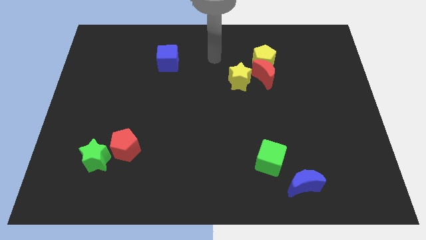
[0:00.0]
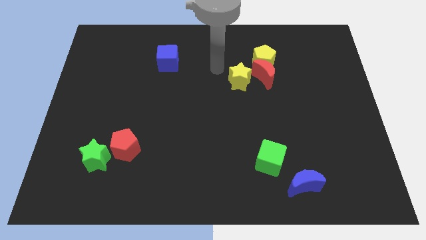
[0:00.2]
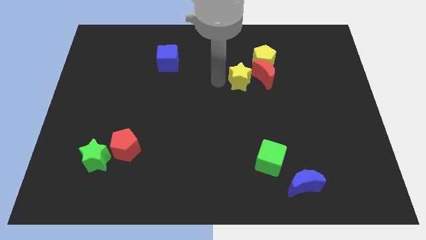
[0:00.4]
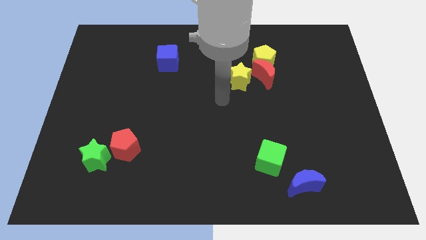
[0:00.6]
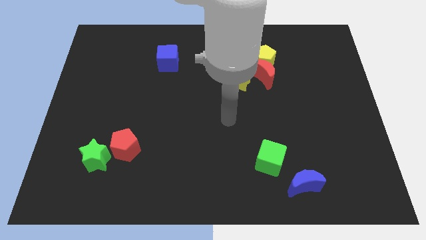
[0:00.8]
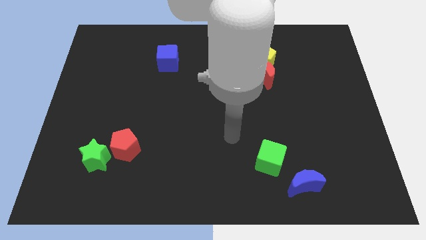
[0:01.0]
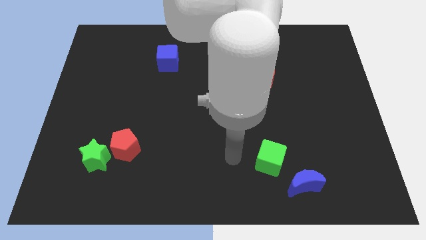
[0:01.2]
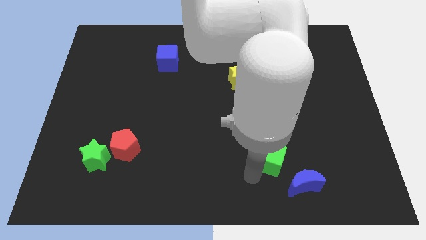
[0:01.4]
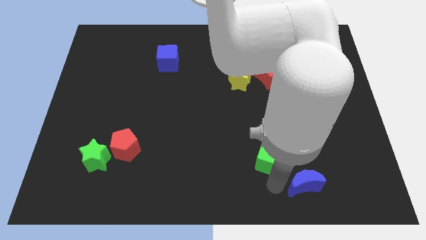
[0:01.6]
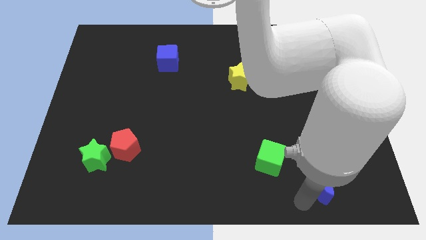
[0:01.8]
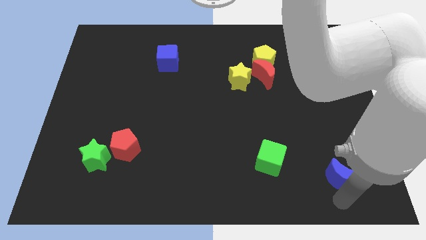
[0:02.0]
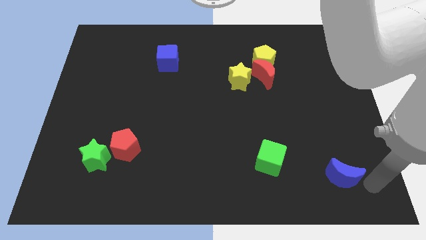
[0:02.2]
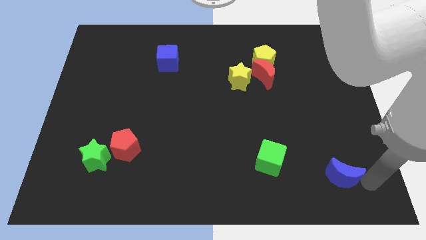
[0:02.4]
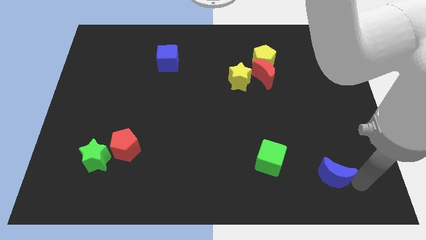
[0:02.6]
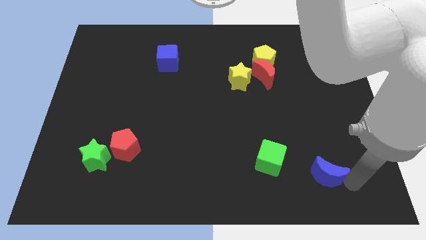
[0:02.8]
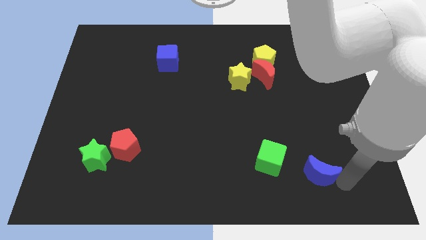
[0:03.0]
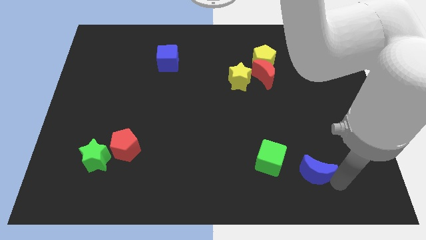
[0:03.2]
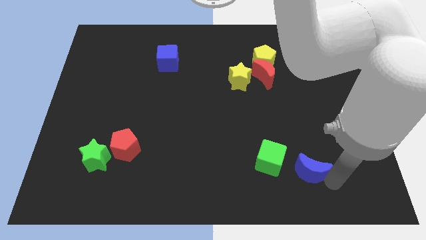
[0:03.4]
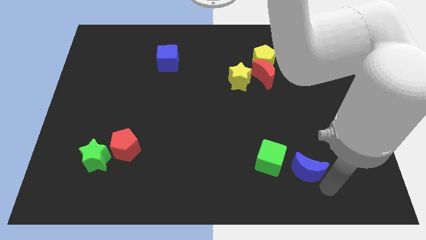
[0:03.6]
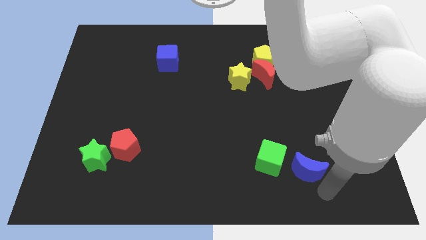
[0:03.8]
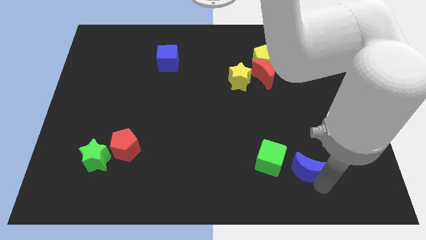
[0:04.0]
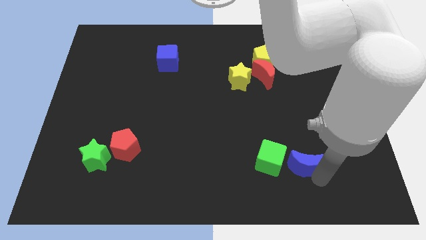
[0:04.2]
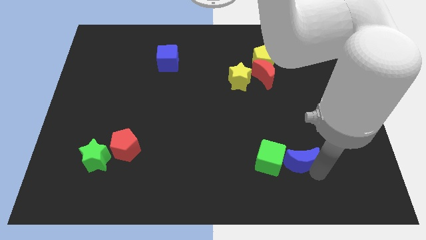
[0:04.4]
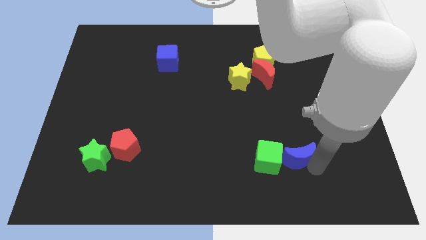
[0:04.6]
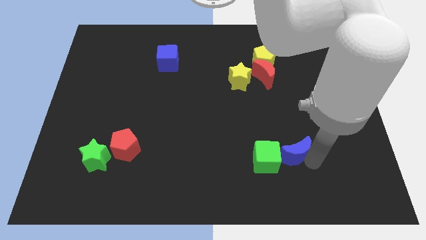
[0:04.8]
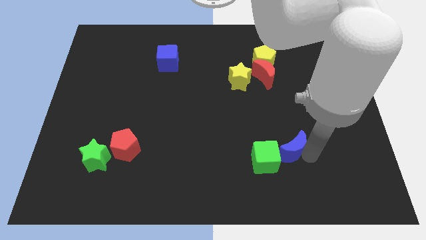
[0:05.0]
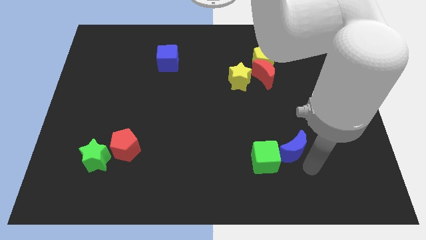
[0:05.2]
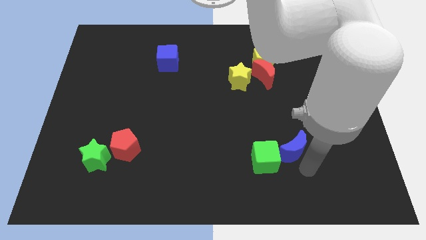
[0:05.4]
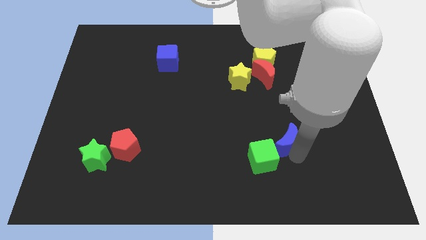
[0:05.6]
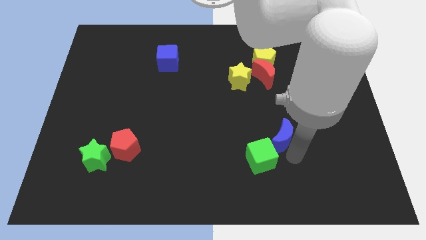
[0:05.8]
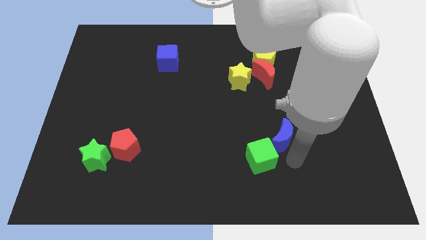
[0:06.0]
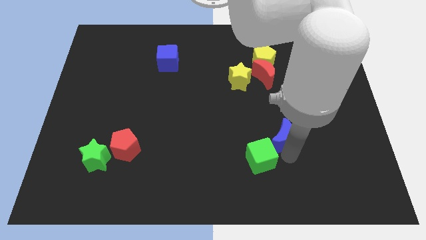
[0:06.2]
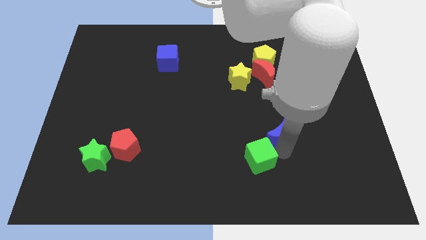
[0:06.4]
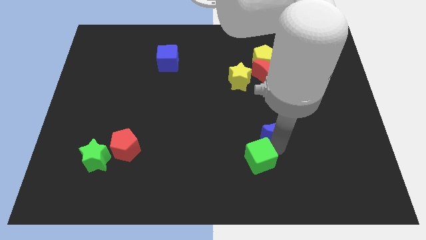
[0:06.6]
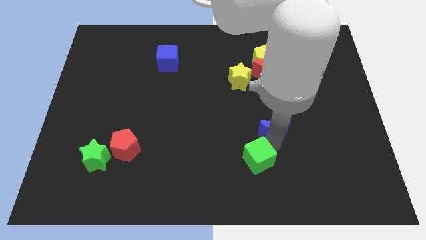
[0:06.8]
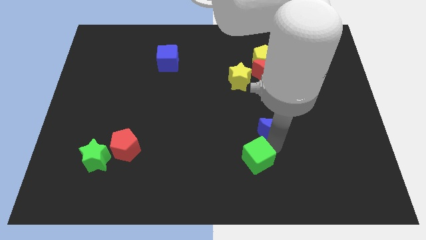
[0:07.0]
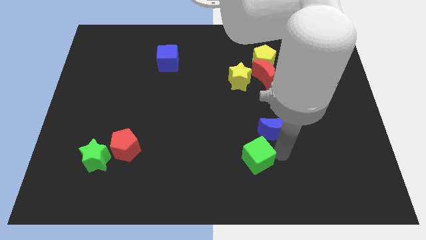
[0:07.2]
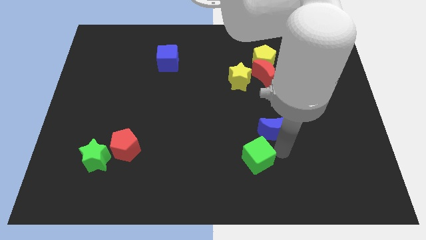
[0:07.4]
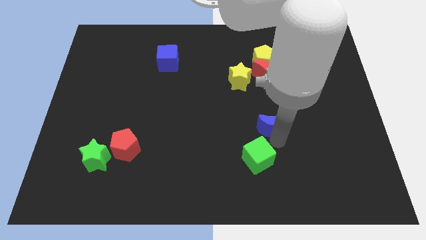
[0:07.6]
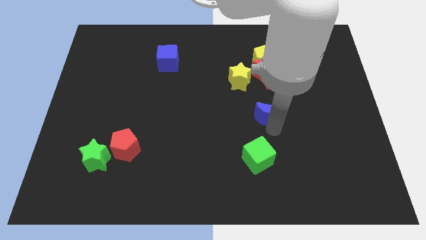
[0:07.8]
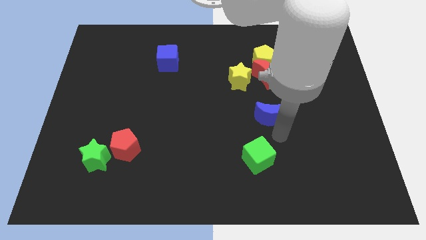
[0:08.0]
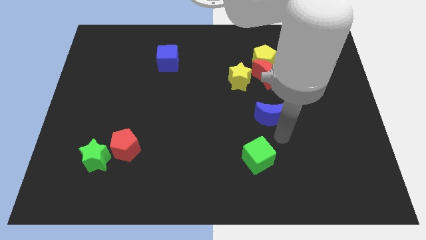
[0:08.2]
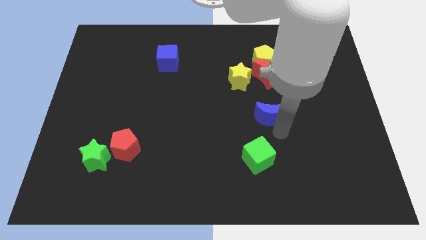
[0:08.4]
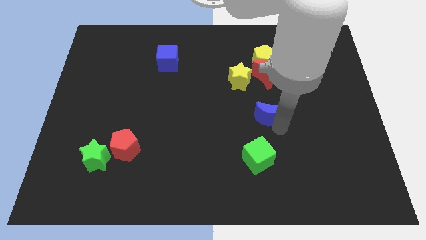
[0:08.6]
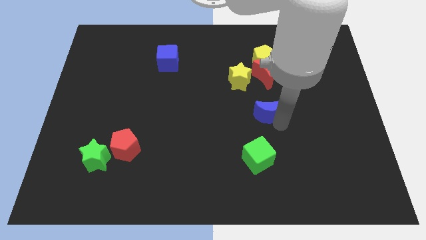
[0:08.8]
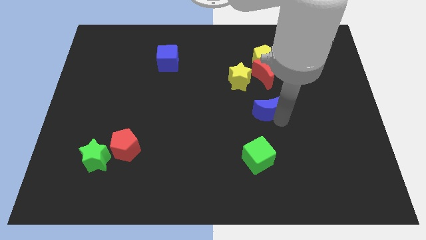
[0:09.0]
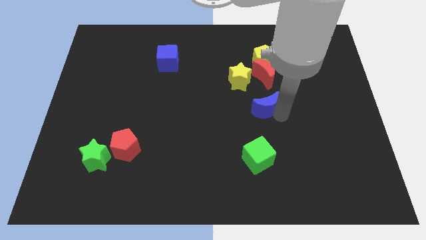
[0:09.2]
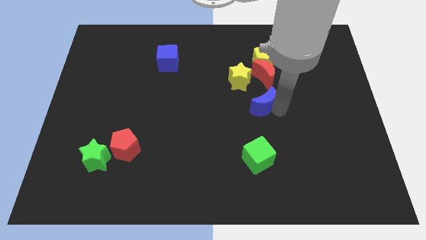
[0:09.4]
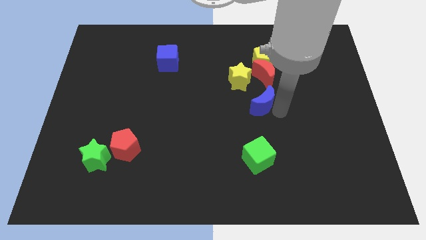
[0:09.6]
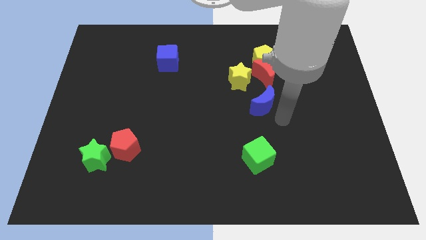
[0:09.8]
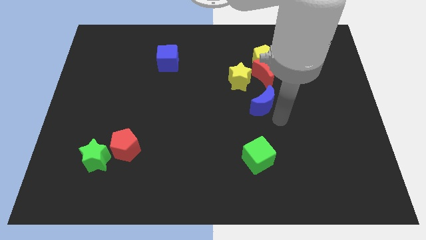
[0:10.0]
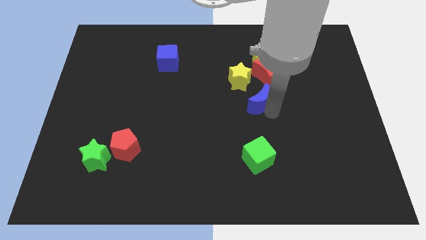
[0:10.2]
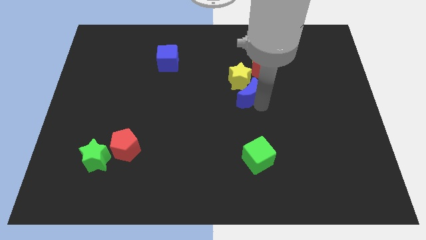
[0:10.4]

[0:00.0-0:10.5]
put the blue moon close to the yellow star

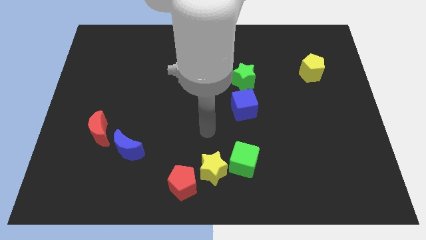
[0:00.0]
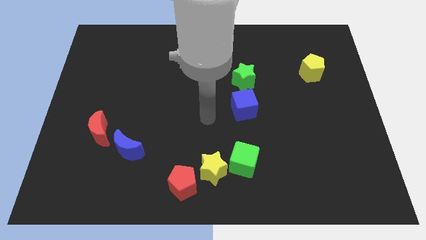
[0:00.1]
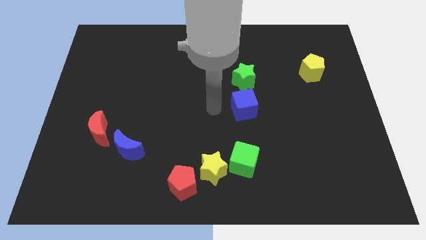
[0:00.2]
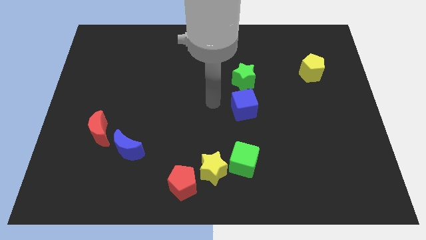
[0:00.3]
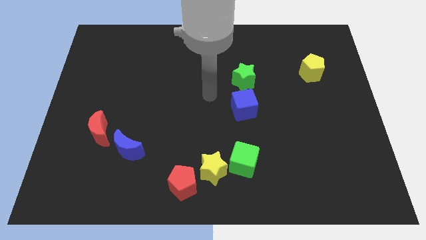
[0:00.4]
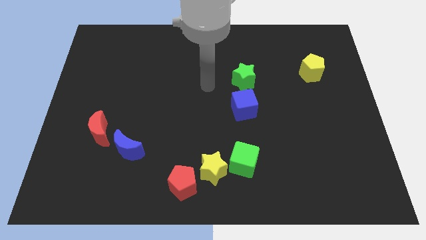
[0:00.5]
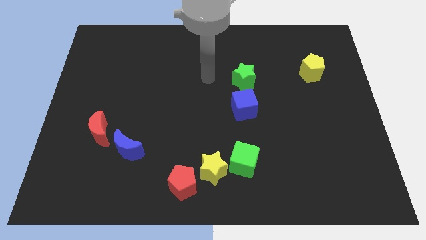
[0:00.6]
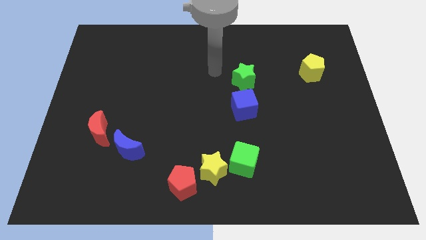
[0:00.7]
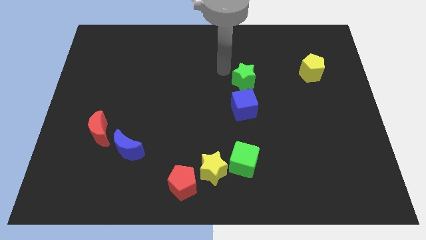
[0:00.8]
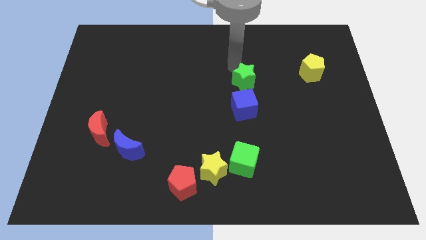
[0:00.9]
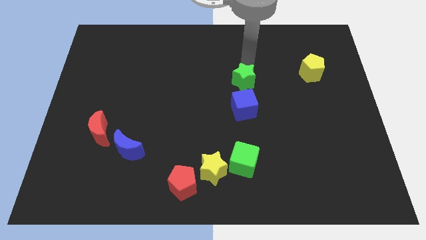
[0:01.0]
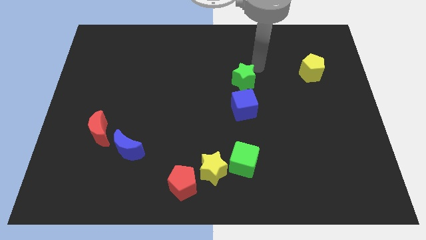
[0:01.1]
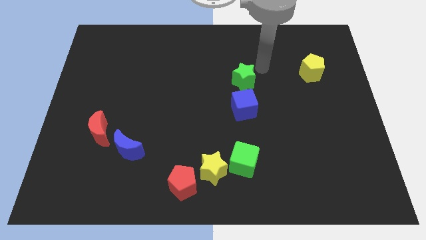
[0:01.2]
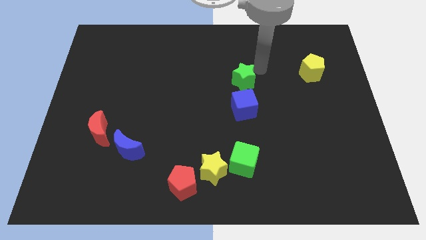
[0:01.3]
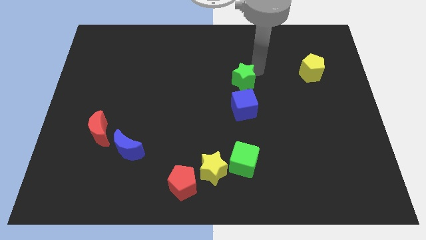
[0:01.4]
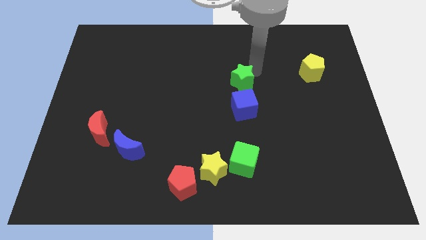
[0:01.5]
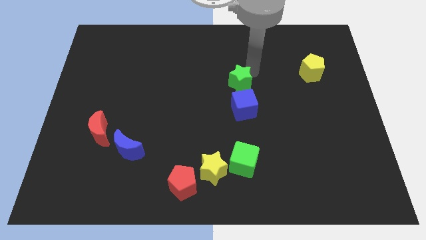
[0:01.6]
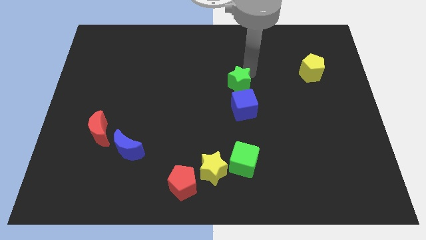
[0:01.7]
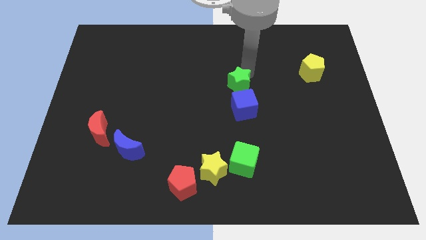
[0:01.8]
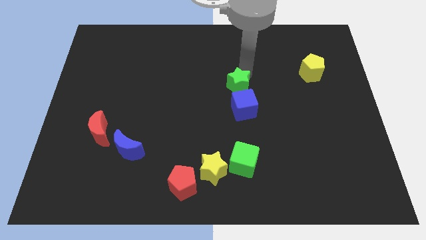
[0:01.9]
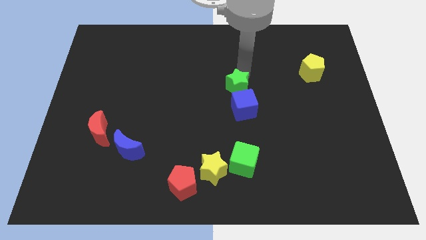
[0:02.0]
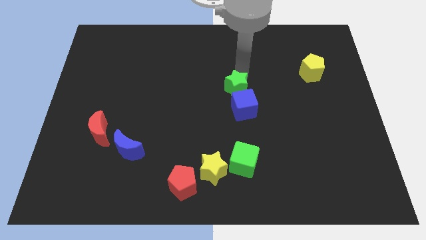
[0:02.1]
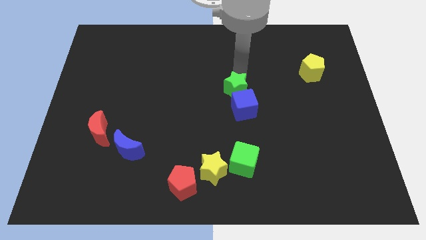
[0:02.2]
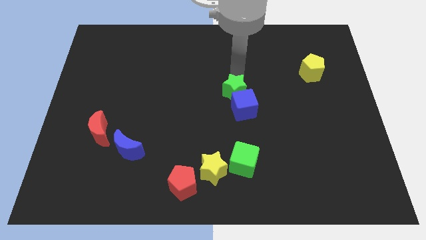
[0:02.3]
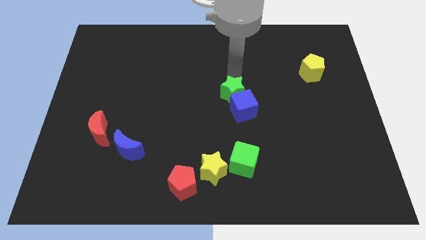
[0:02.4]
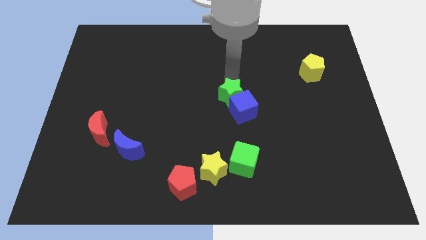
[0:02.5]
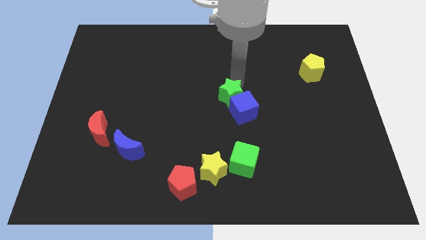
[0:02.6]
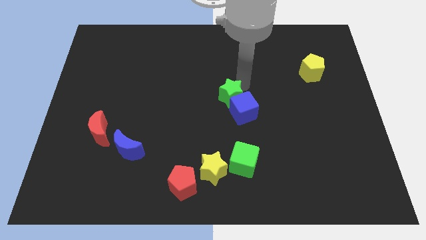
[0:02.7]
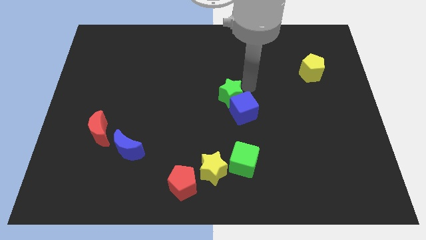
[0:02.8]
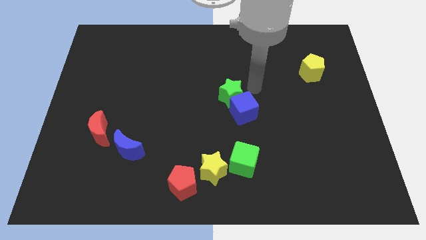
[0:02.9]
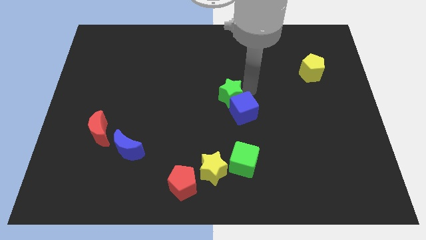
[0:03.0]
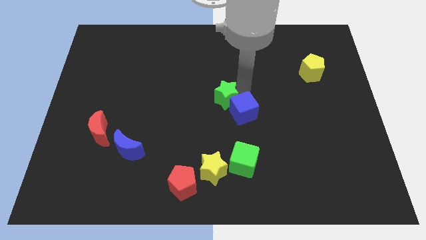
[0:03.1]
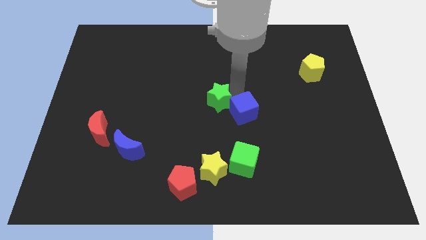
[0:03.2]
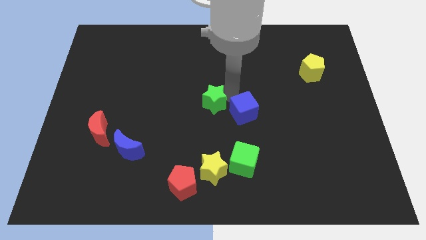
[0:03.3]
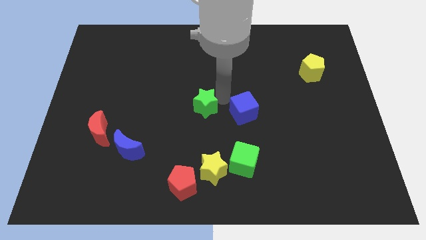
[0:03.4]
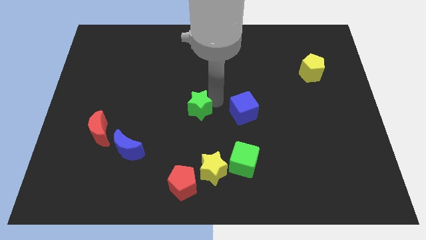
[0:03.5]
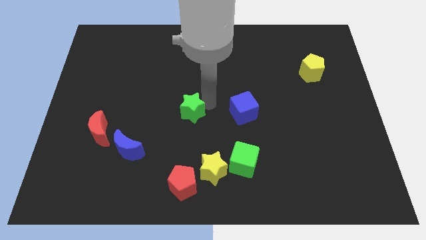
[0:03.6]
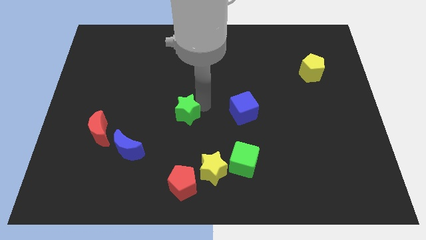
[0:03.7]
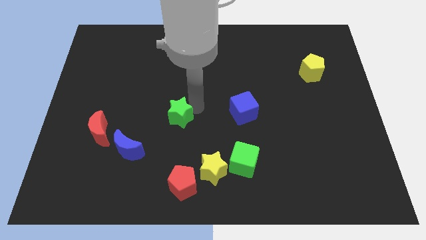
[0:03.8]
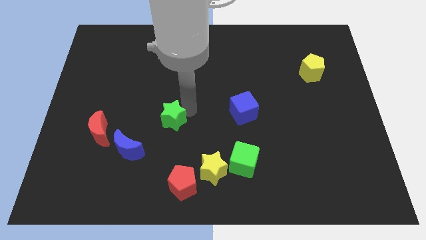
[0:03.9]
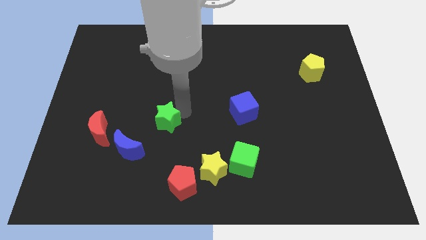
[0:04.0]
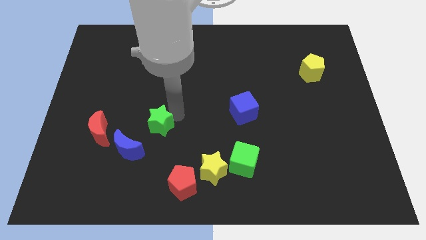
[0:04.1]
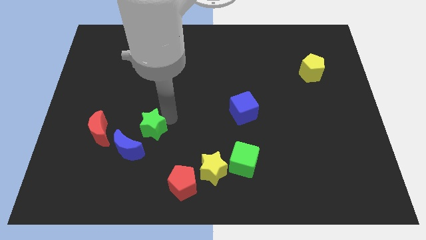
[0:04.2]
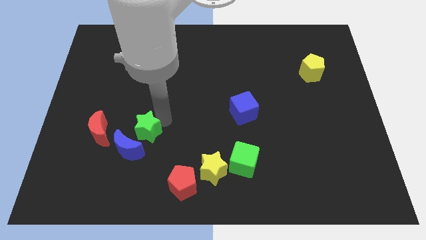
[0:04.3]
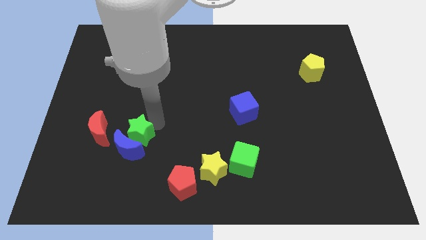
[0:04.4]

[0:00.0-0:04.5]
move the green star close to the blue moon
